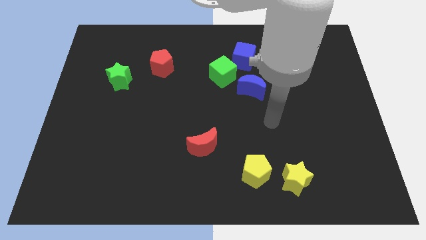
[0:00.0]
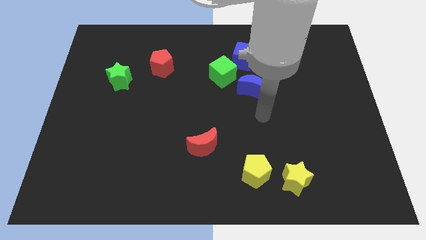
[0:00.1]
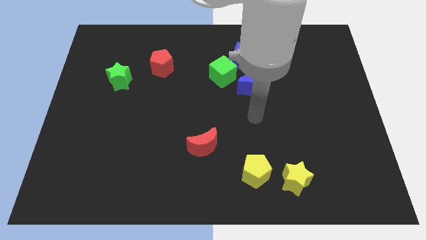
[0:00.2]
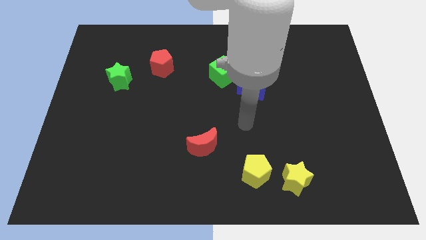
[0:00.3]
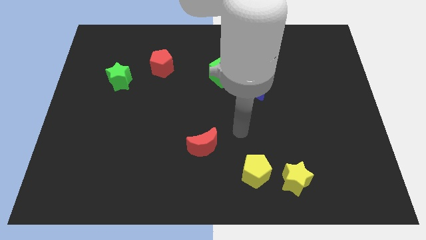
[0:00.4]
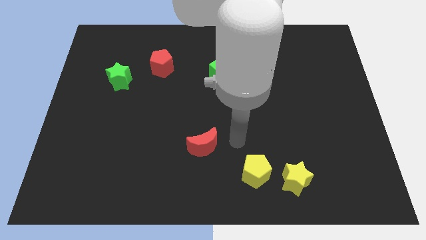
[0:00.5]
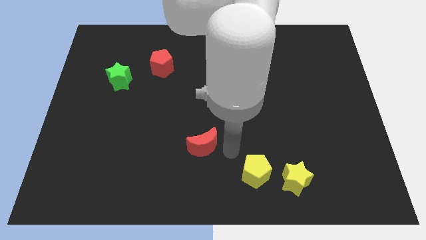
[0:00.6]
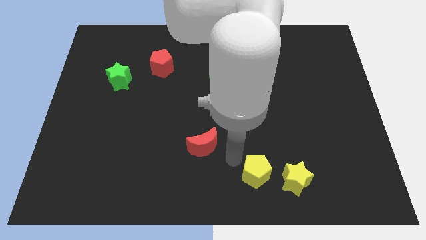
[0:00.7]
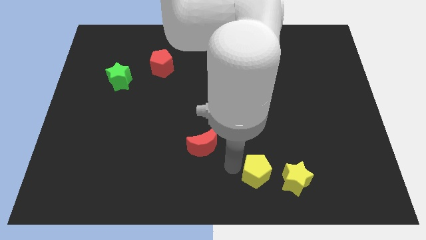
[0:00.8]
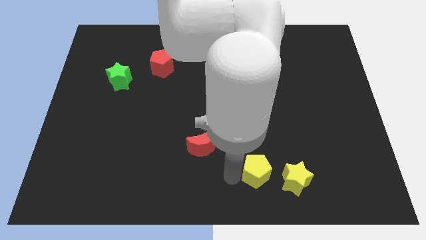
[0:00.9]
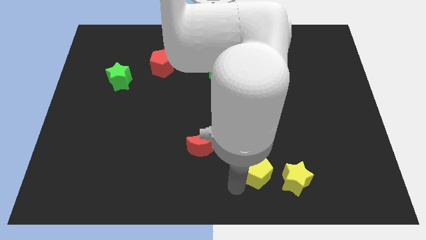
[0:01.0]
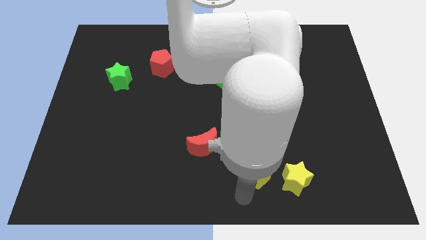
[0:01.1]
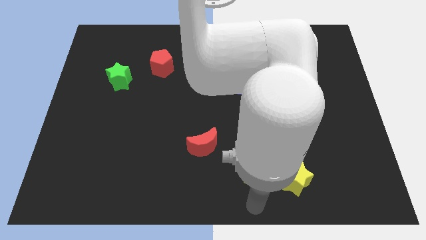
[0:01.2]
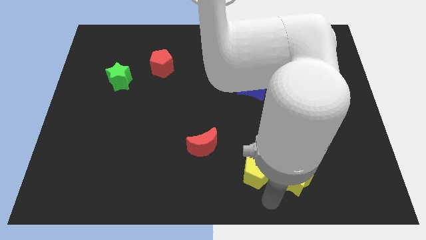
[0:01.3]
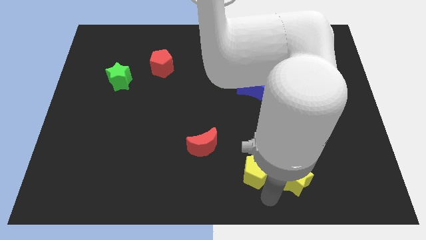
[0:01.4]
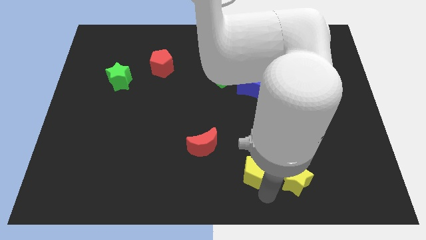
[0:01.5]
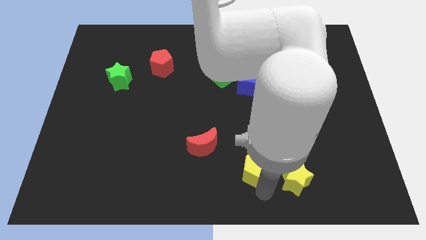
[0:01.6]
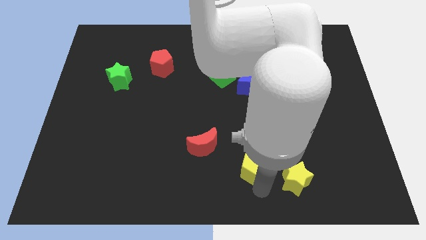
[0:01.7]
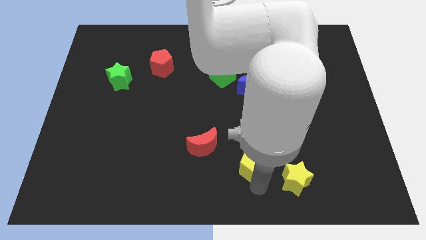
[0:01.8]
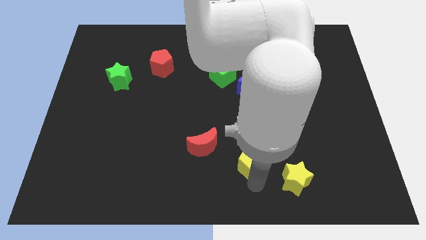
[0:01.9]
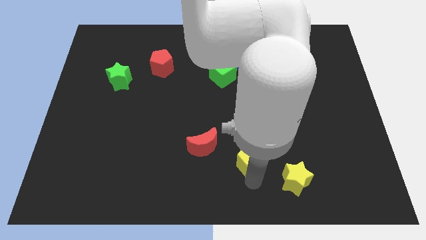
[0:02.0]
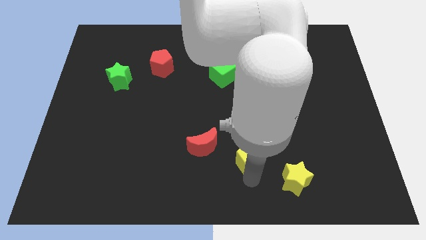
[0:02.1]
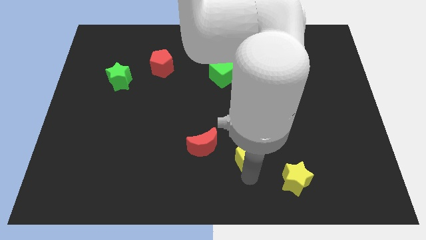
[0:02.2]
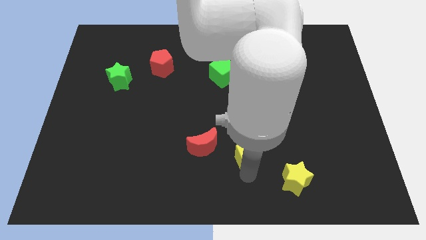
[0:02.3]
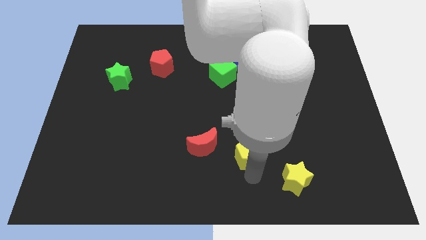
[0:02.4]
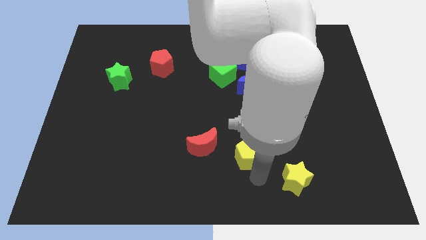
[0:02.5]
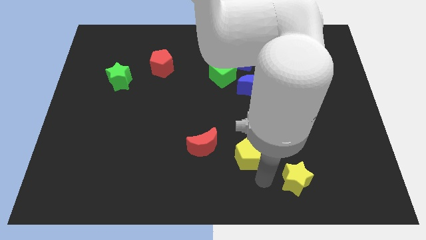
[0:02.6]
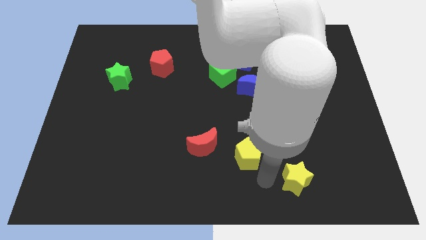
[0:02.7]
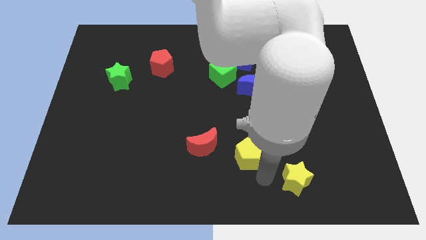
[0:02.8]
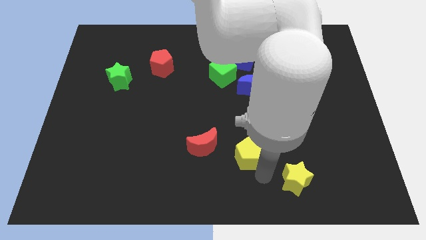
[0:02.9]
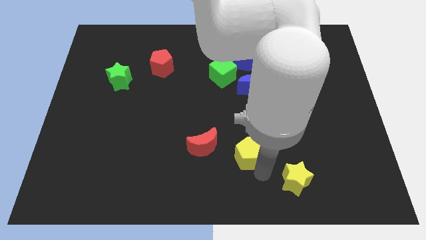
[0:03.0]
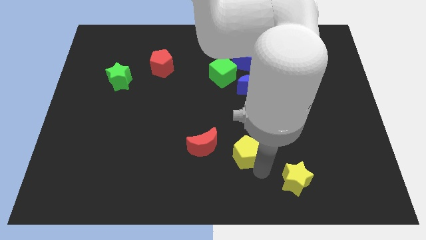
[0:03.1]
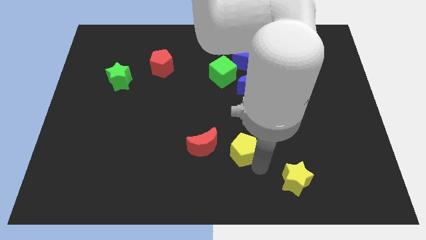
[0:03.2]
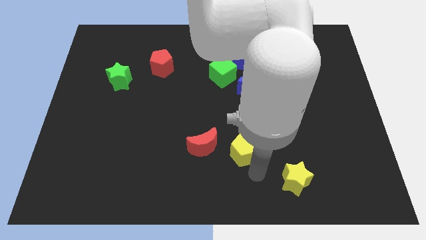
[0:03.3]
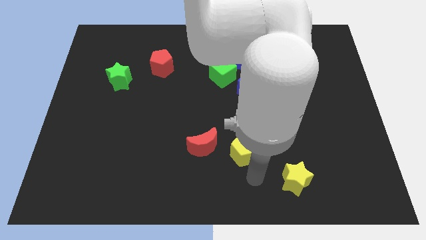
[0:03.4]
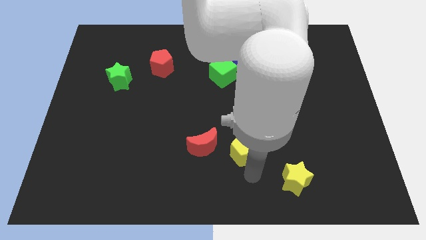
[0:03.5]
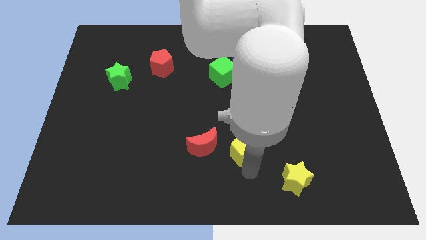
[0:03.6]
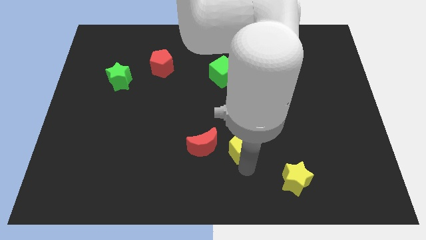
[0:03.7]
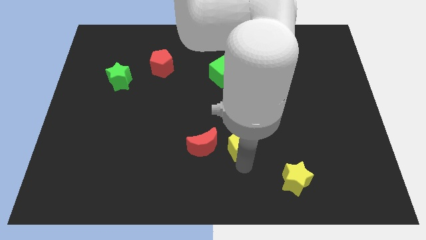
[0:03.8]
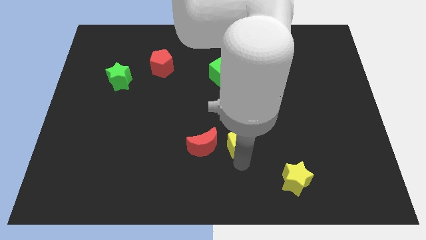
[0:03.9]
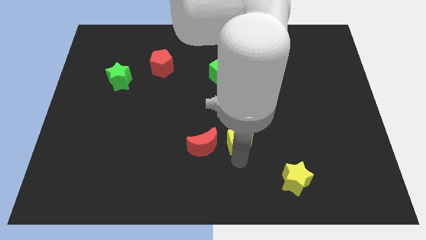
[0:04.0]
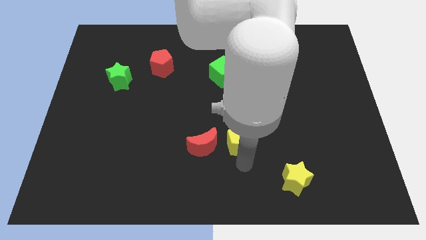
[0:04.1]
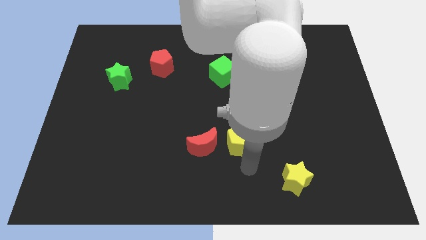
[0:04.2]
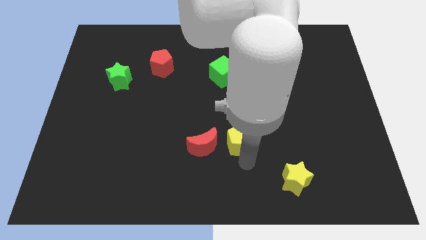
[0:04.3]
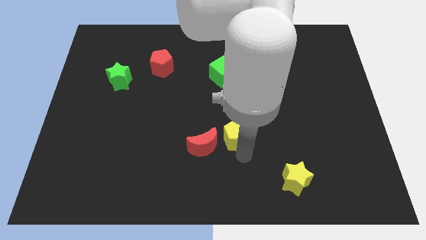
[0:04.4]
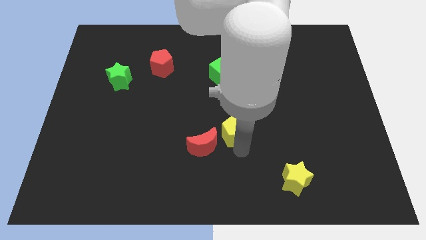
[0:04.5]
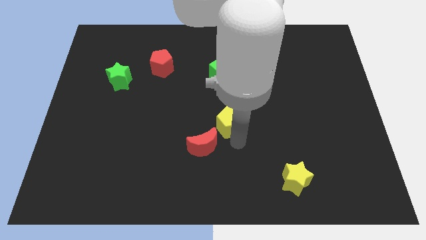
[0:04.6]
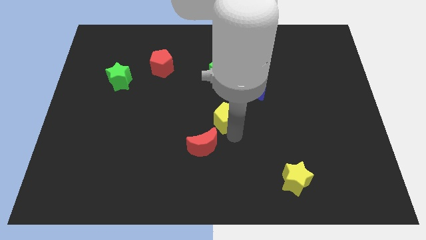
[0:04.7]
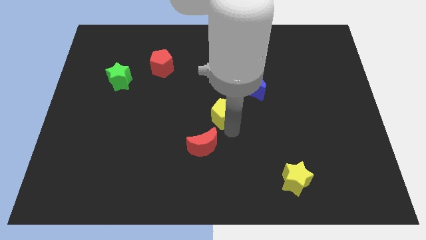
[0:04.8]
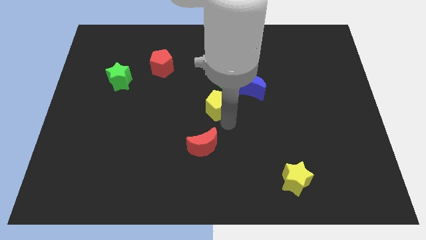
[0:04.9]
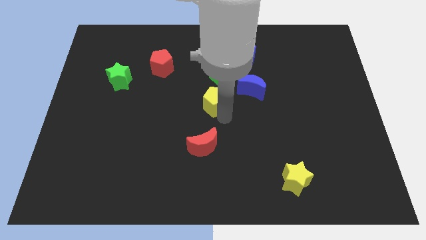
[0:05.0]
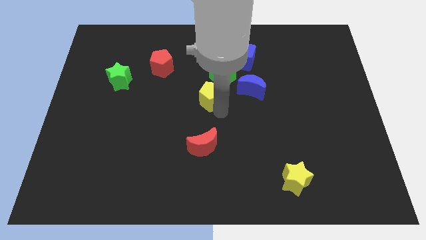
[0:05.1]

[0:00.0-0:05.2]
push the yellow pentagon to the bottom left side of the green cube

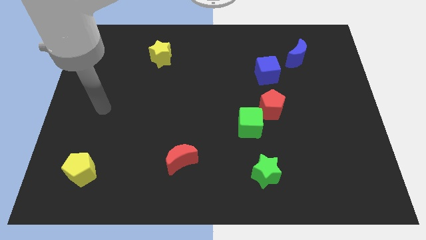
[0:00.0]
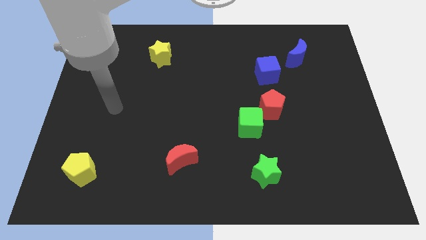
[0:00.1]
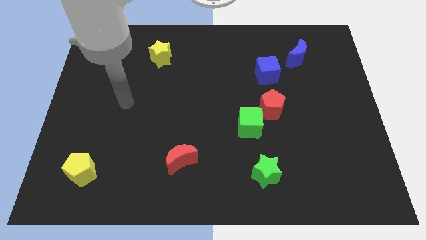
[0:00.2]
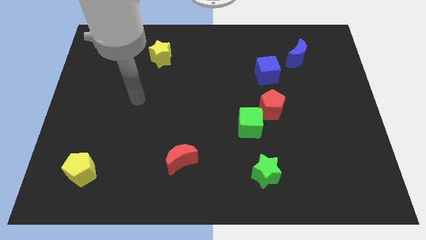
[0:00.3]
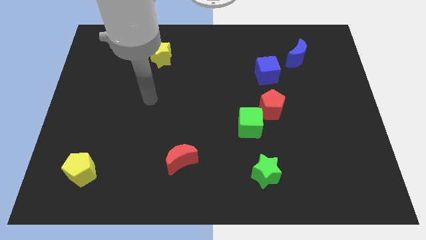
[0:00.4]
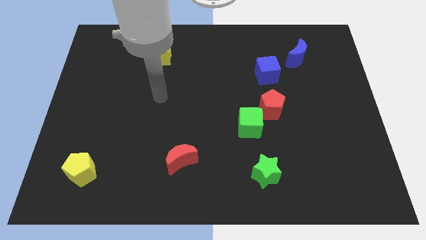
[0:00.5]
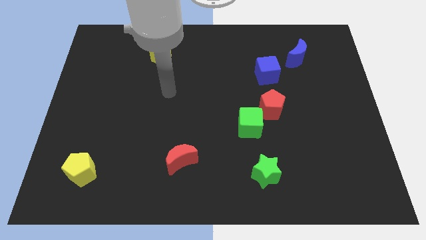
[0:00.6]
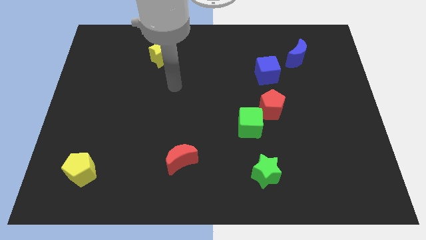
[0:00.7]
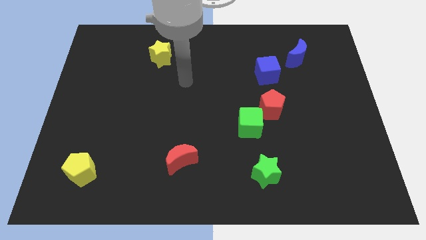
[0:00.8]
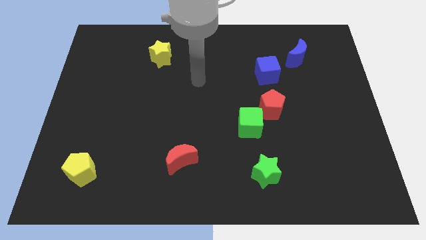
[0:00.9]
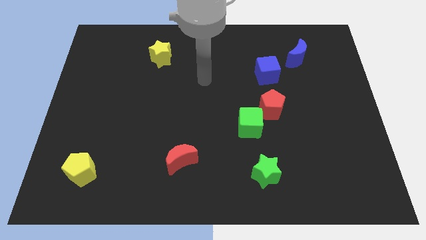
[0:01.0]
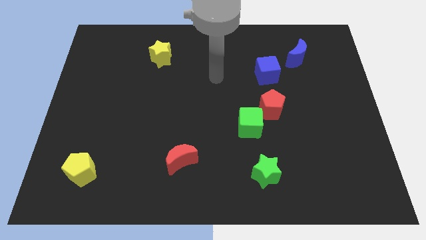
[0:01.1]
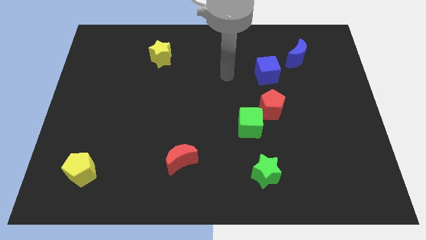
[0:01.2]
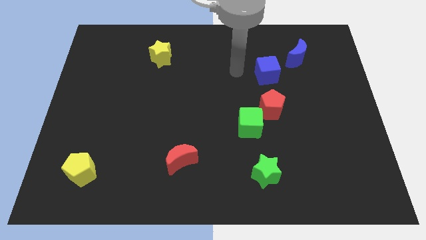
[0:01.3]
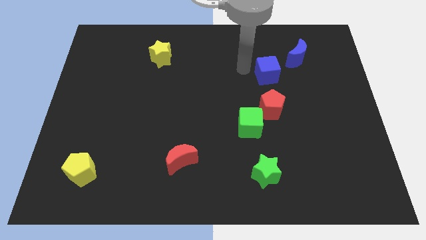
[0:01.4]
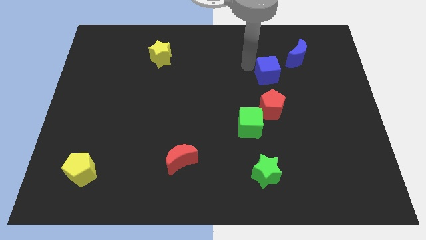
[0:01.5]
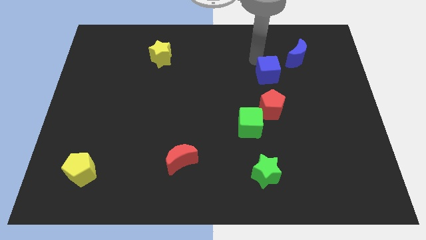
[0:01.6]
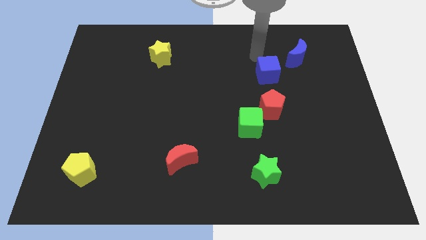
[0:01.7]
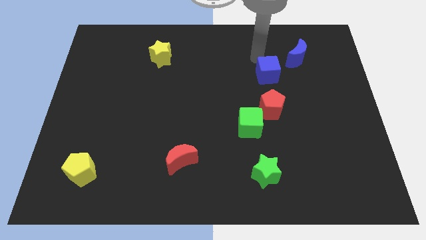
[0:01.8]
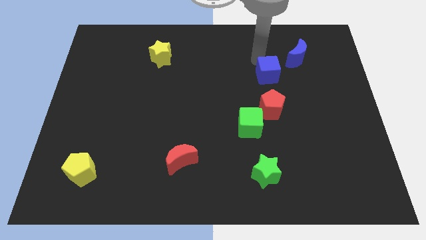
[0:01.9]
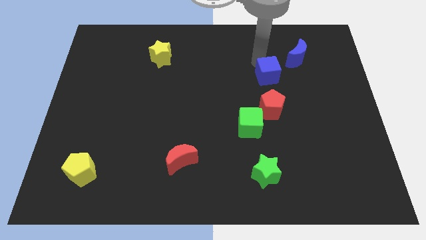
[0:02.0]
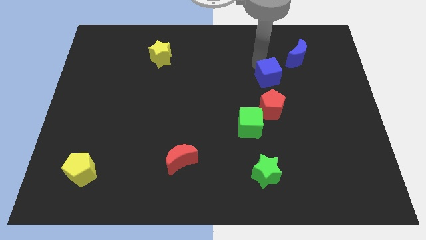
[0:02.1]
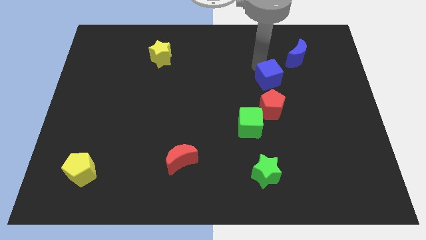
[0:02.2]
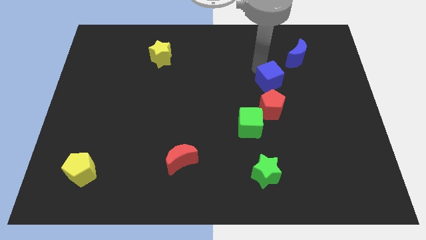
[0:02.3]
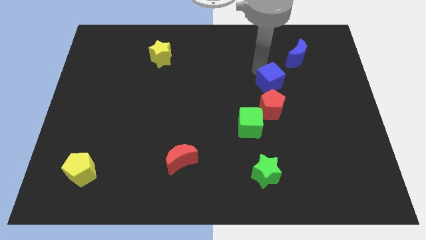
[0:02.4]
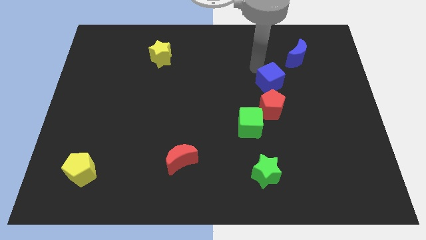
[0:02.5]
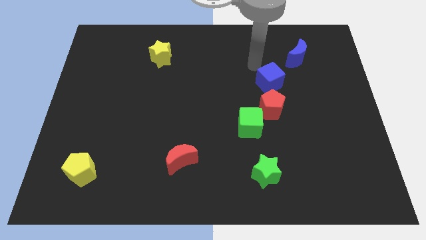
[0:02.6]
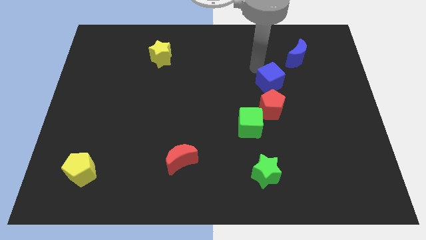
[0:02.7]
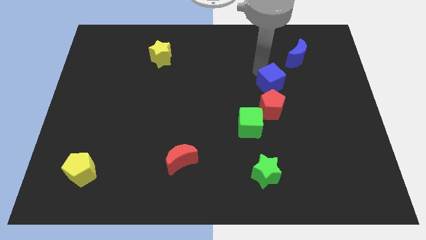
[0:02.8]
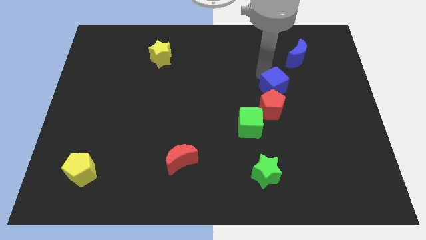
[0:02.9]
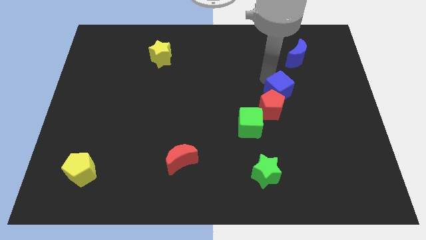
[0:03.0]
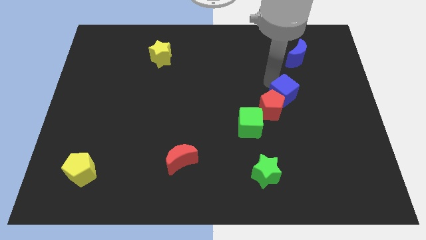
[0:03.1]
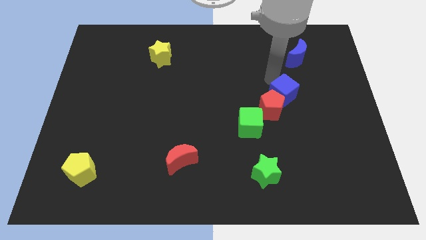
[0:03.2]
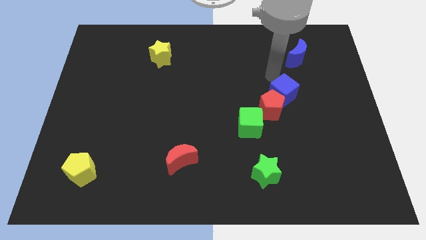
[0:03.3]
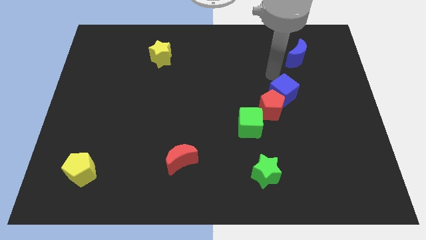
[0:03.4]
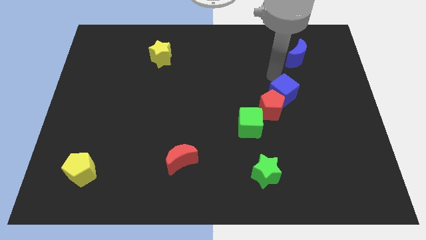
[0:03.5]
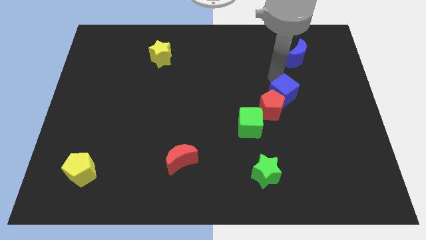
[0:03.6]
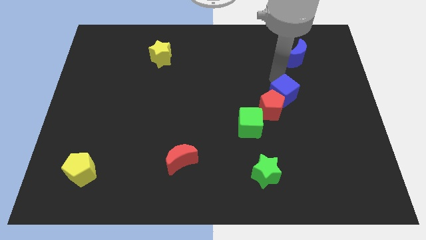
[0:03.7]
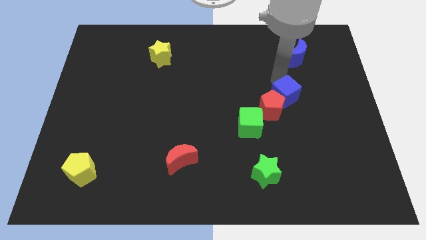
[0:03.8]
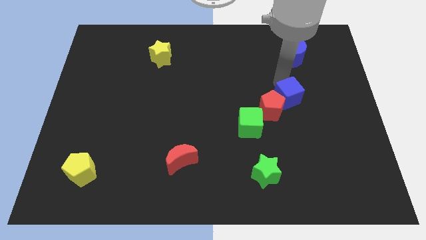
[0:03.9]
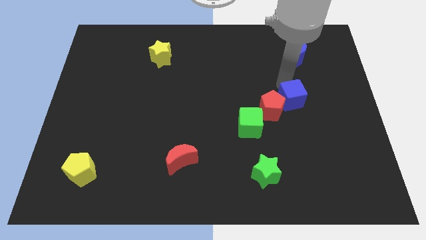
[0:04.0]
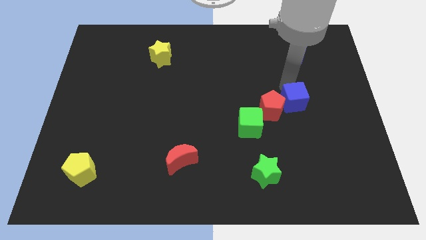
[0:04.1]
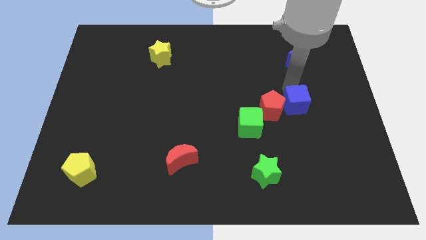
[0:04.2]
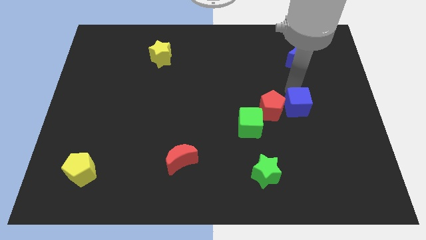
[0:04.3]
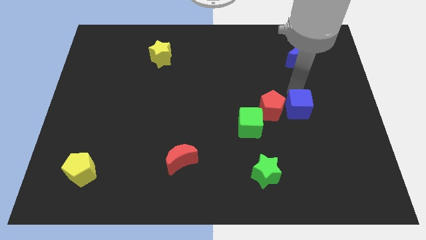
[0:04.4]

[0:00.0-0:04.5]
move the blue cube to the bottom right side of the red pentagon
